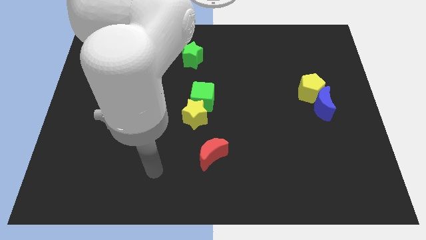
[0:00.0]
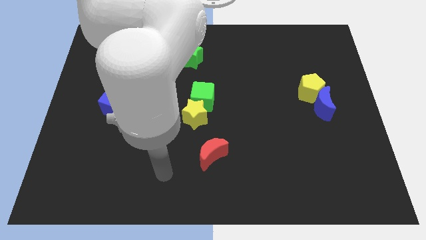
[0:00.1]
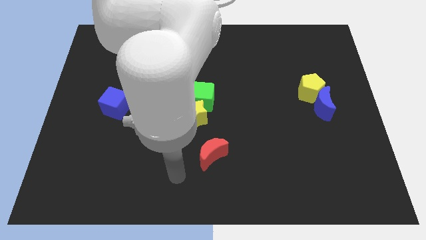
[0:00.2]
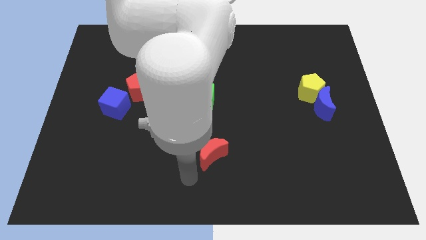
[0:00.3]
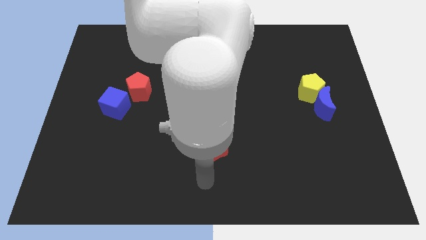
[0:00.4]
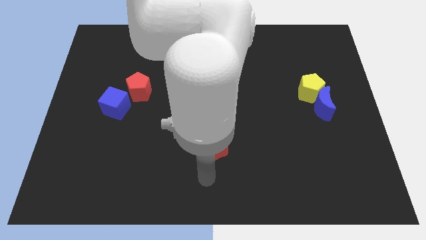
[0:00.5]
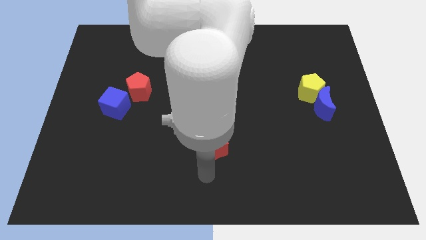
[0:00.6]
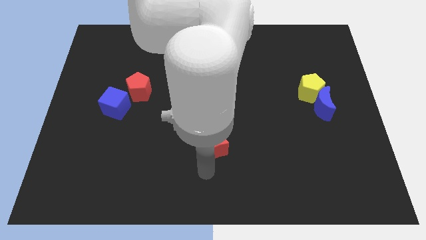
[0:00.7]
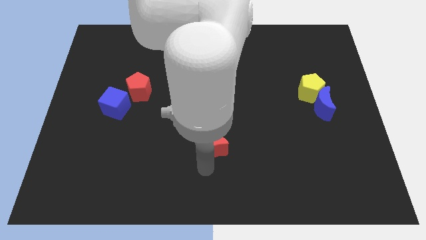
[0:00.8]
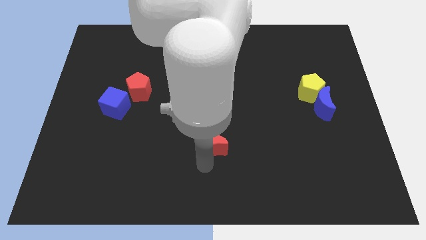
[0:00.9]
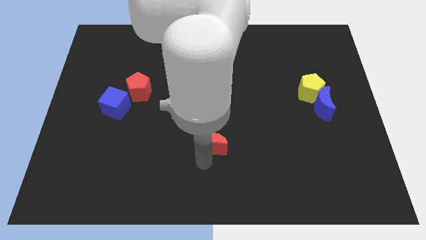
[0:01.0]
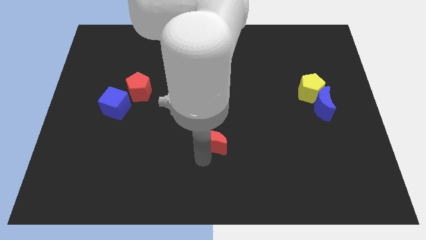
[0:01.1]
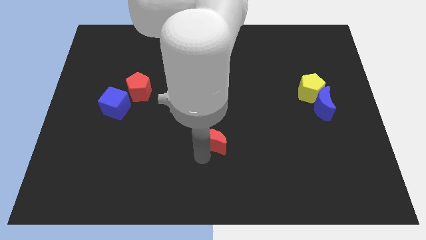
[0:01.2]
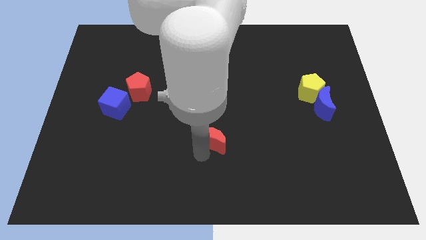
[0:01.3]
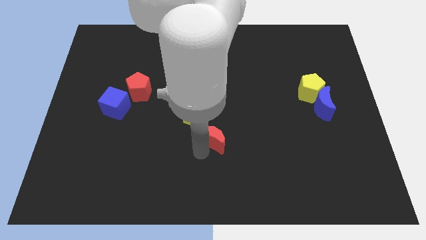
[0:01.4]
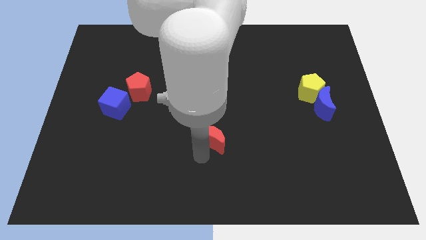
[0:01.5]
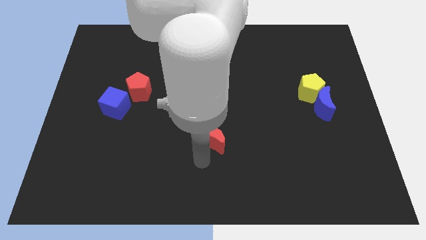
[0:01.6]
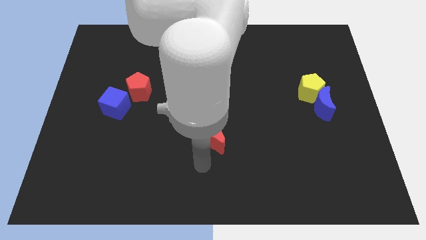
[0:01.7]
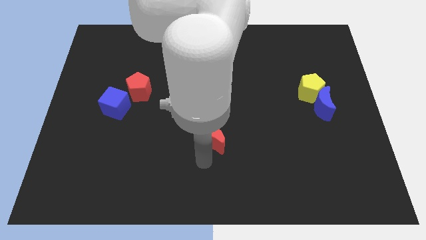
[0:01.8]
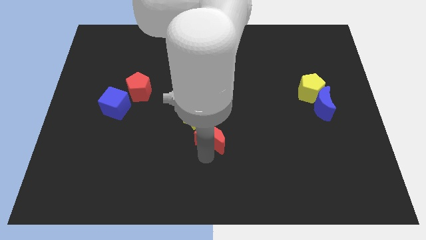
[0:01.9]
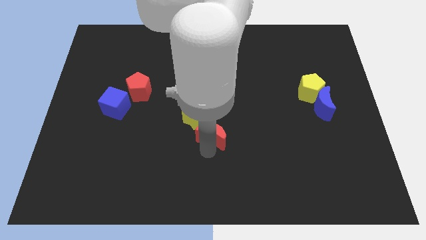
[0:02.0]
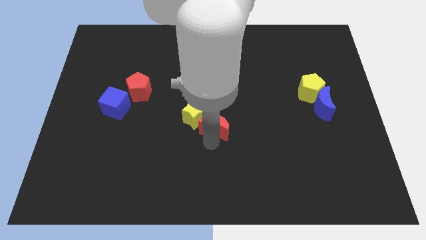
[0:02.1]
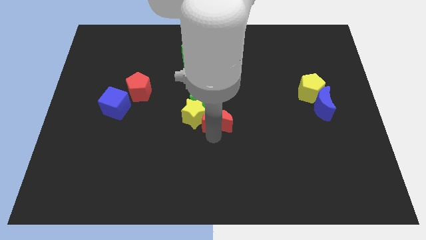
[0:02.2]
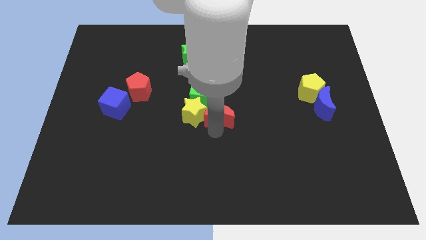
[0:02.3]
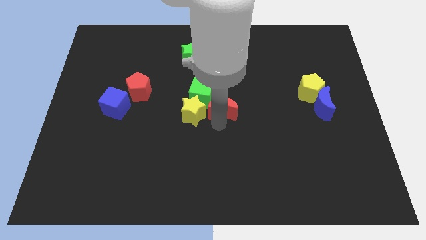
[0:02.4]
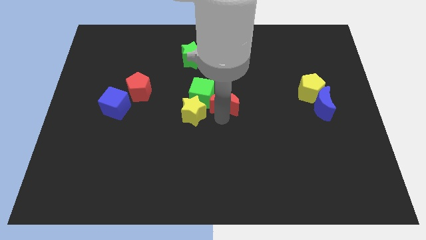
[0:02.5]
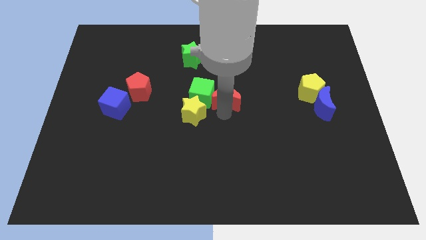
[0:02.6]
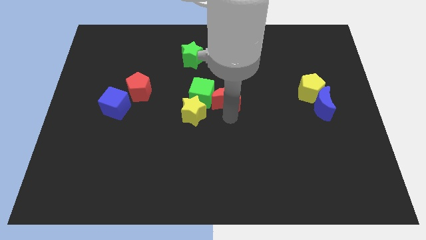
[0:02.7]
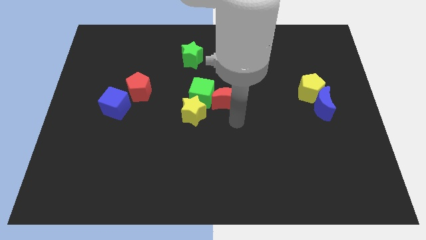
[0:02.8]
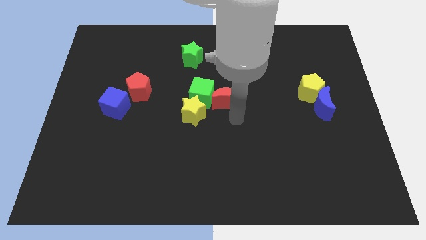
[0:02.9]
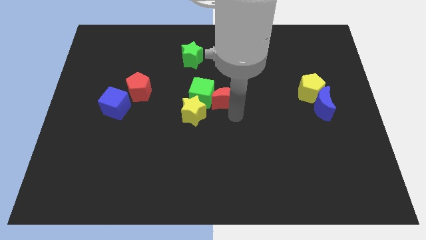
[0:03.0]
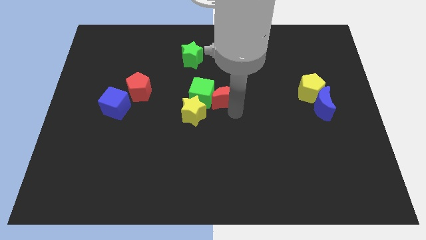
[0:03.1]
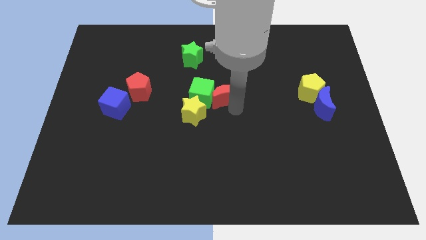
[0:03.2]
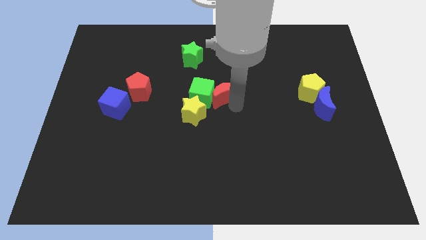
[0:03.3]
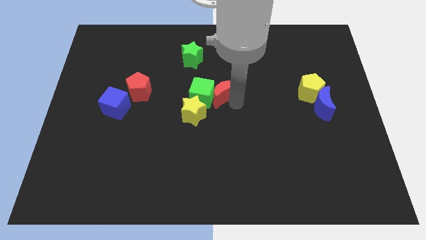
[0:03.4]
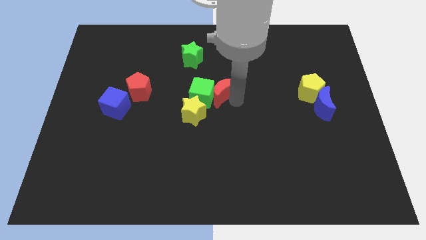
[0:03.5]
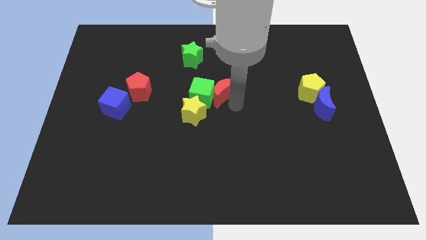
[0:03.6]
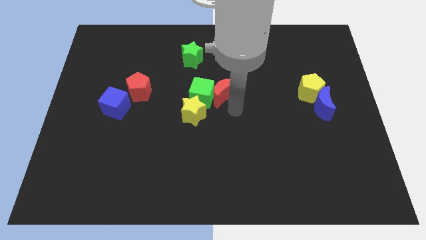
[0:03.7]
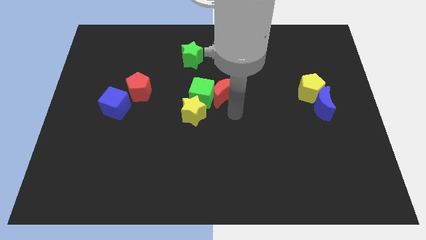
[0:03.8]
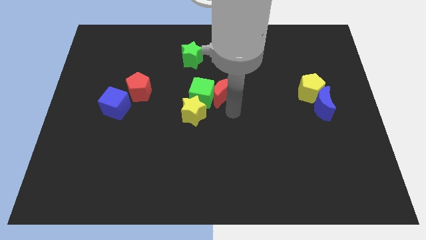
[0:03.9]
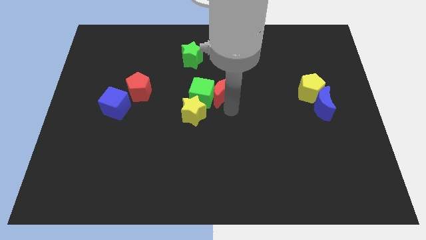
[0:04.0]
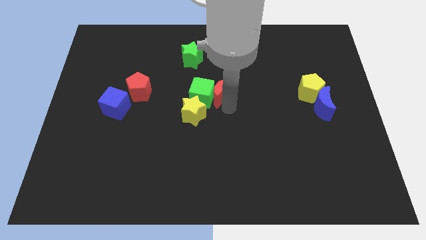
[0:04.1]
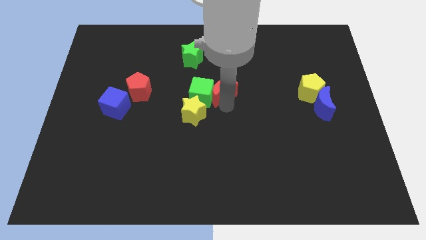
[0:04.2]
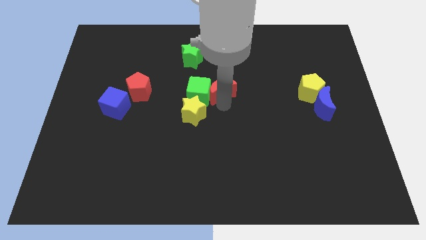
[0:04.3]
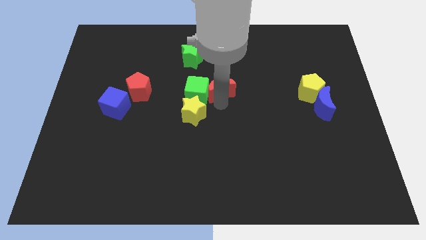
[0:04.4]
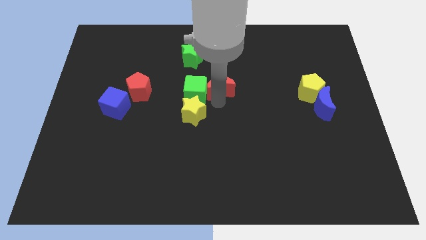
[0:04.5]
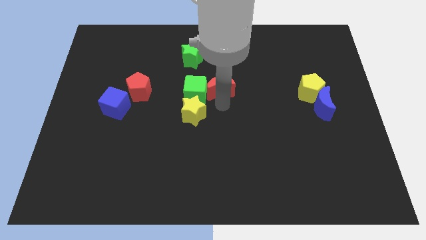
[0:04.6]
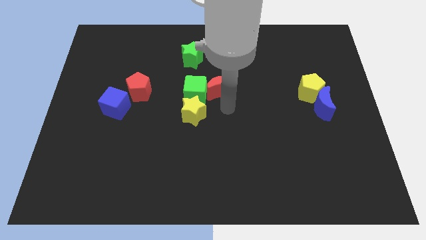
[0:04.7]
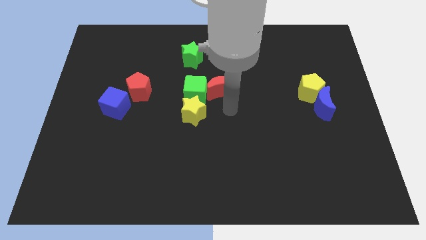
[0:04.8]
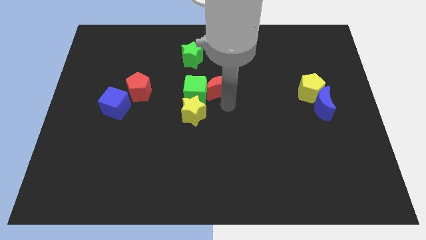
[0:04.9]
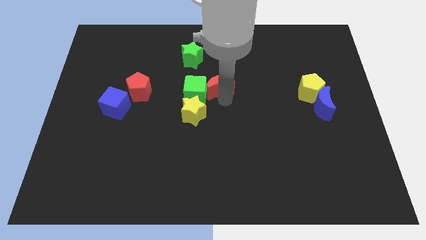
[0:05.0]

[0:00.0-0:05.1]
move the red moon to the bottom right side of the green star

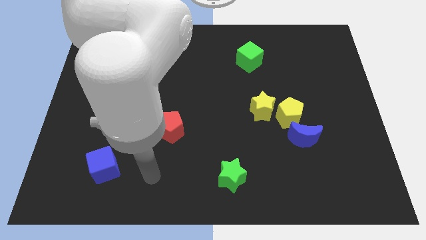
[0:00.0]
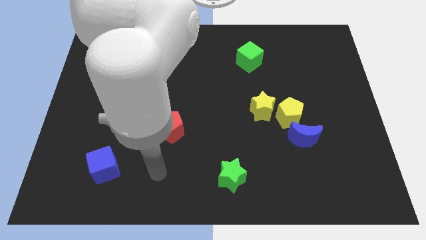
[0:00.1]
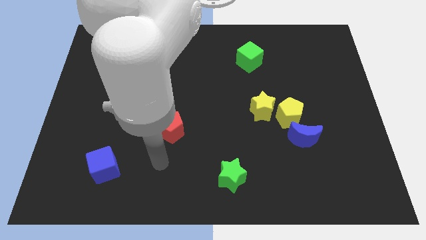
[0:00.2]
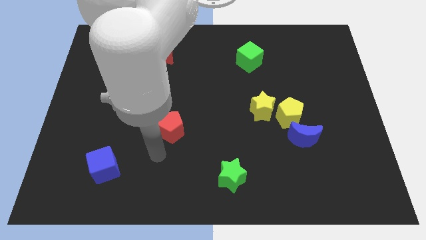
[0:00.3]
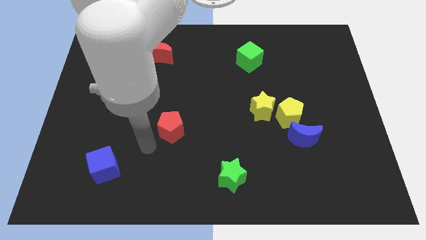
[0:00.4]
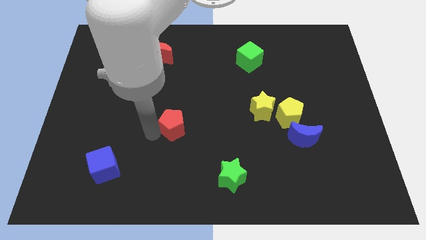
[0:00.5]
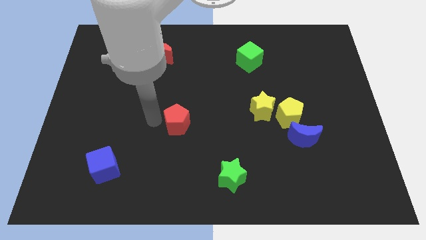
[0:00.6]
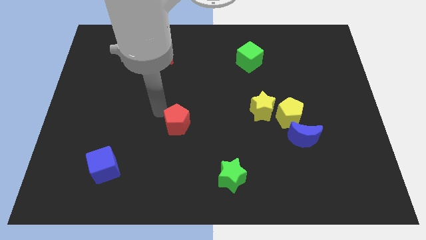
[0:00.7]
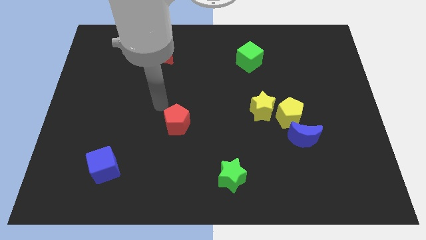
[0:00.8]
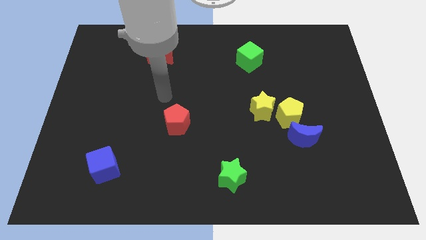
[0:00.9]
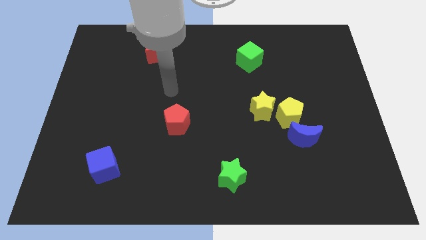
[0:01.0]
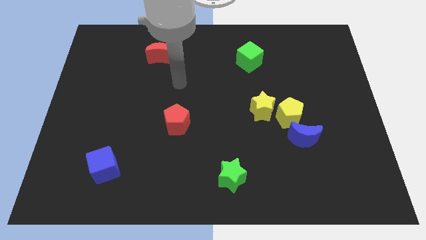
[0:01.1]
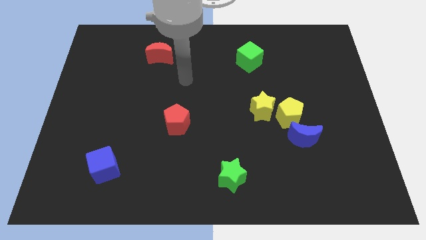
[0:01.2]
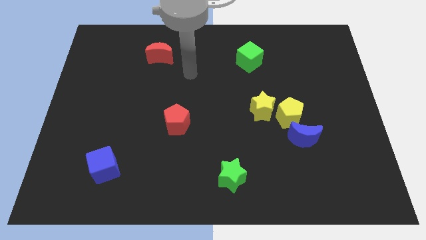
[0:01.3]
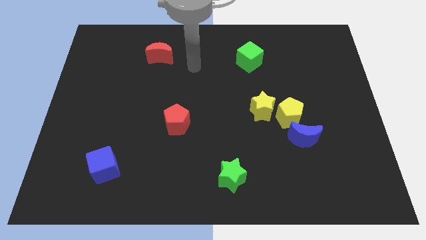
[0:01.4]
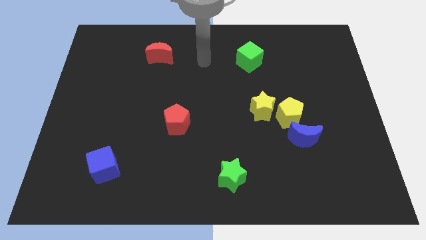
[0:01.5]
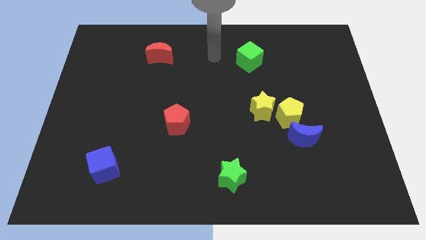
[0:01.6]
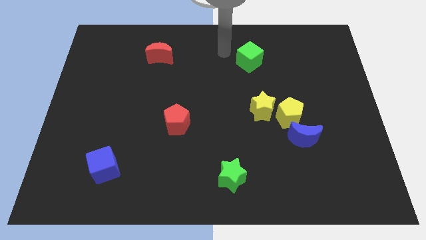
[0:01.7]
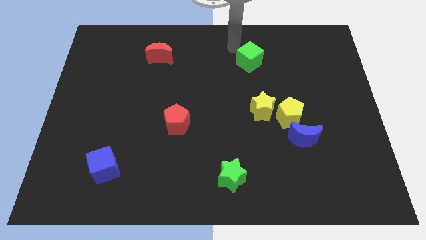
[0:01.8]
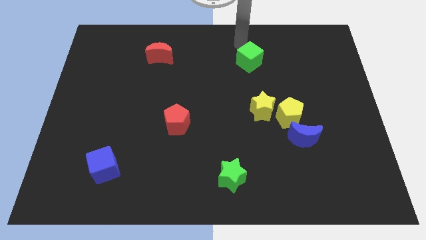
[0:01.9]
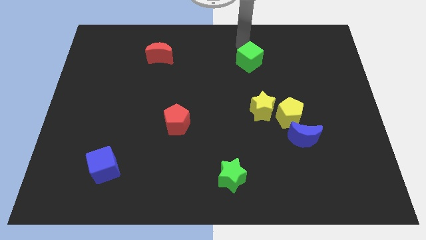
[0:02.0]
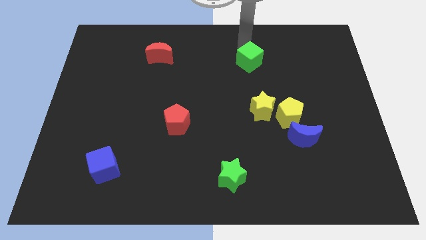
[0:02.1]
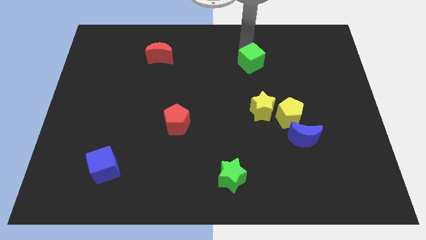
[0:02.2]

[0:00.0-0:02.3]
push the green cube to the top side of the yellow star
